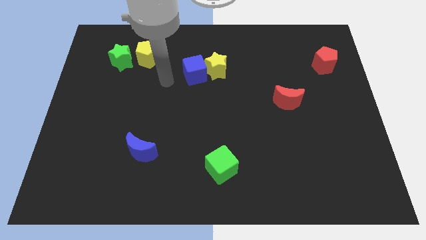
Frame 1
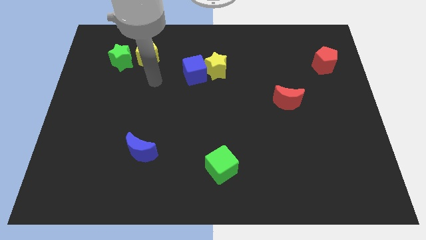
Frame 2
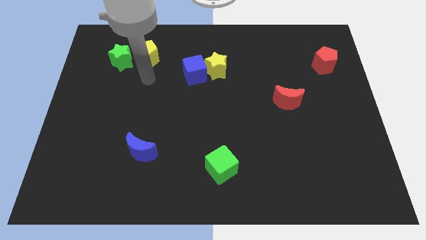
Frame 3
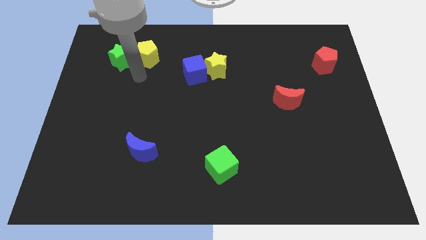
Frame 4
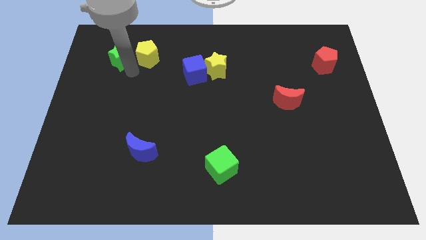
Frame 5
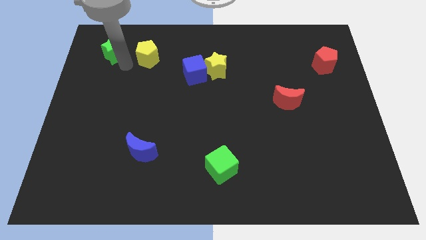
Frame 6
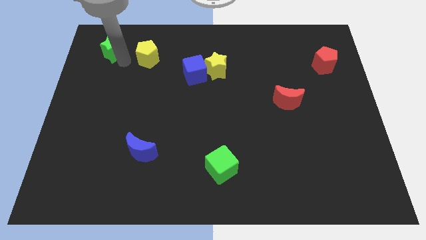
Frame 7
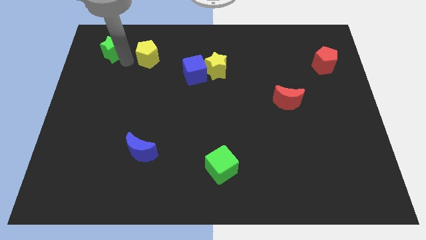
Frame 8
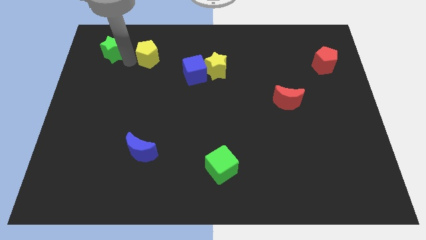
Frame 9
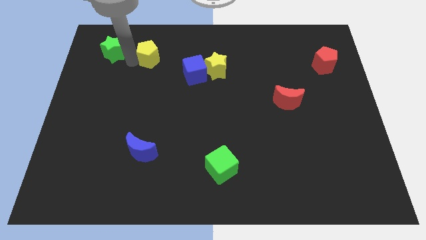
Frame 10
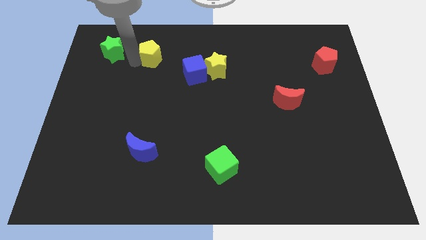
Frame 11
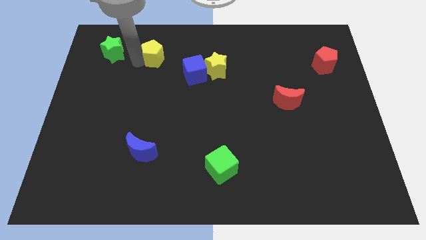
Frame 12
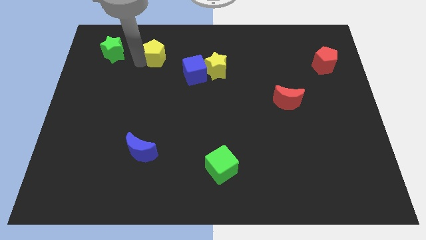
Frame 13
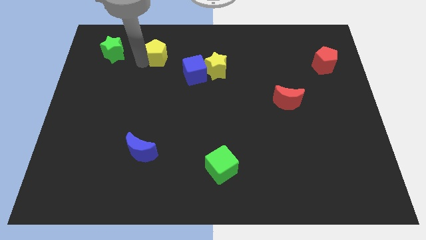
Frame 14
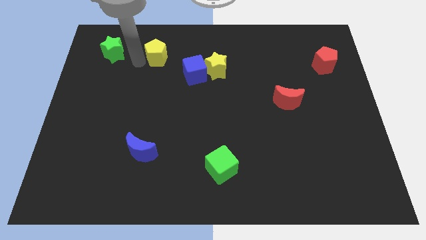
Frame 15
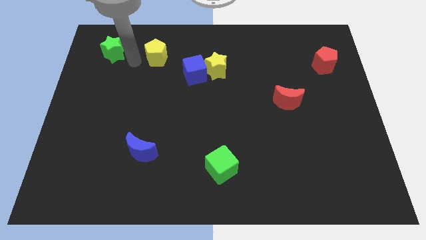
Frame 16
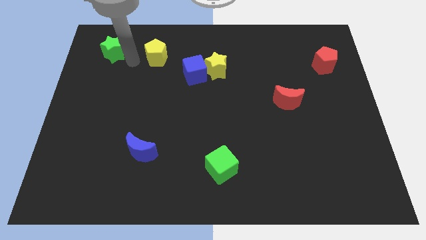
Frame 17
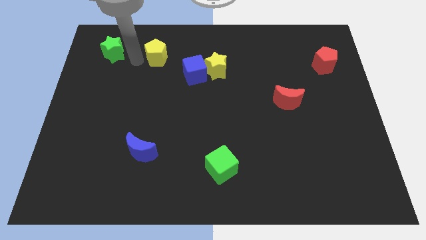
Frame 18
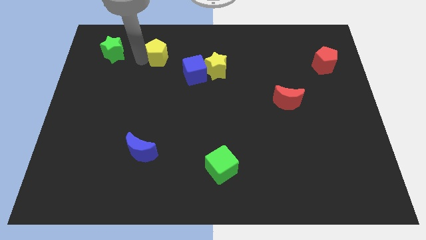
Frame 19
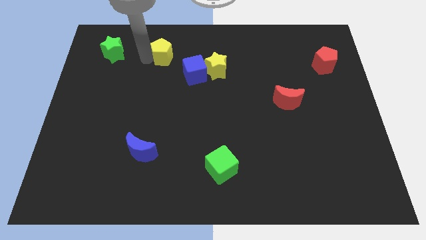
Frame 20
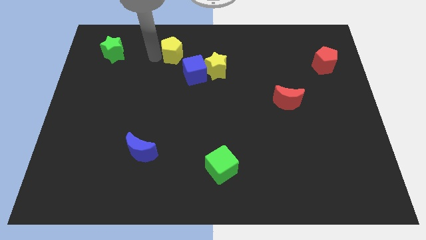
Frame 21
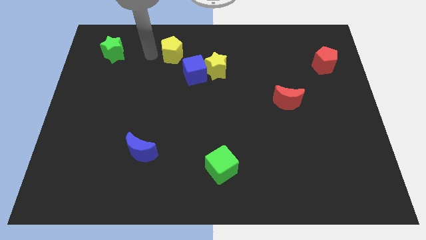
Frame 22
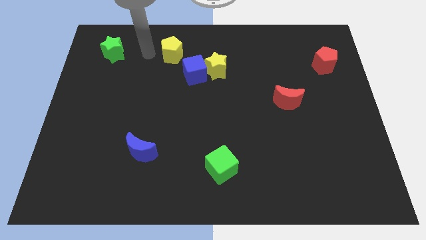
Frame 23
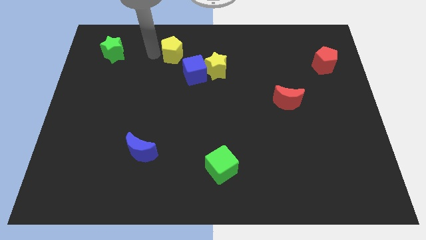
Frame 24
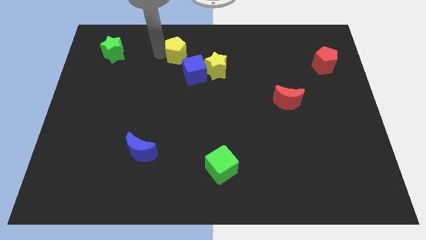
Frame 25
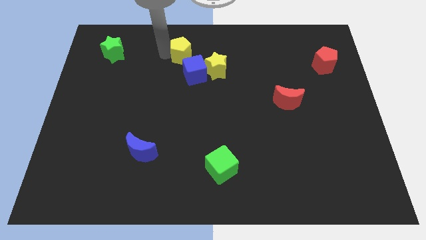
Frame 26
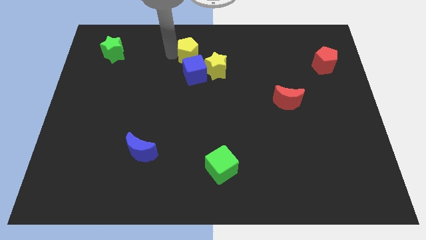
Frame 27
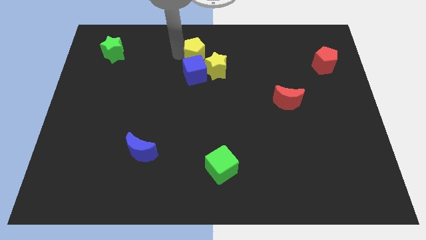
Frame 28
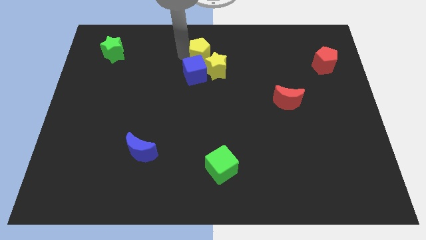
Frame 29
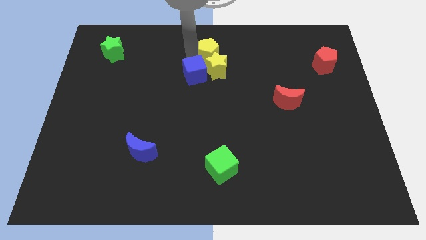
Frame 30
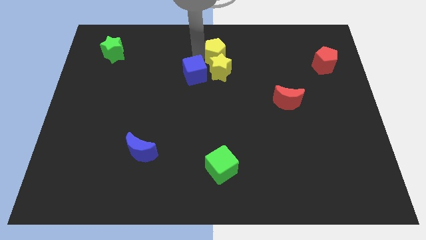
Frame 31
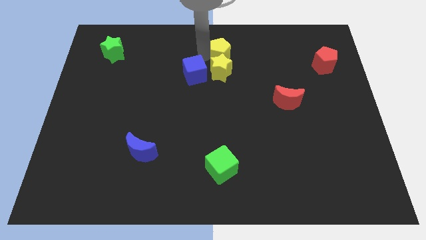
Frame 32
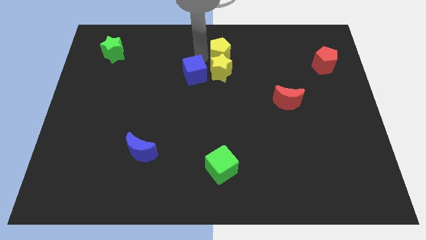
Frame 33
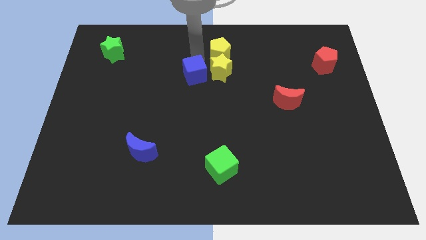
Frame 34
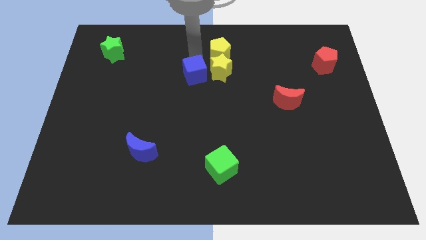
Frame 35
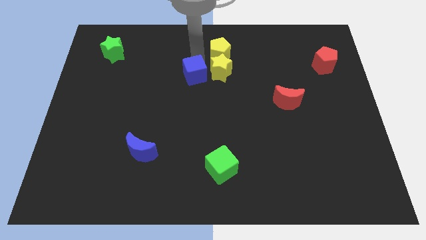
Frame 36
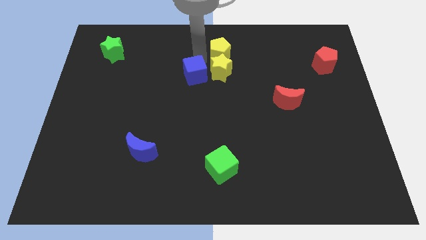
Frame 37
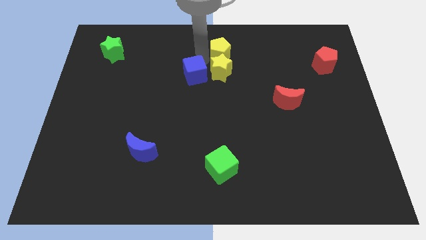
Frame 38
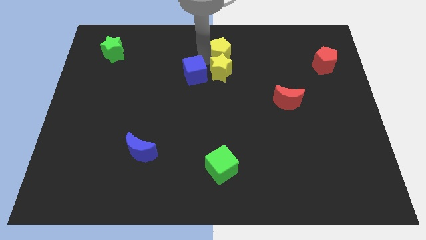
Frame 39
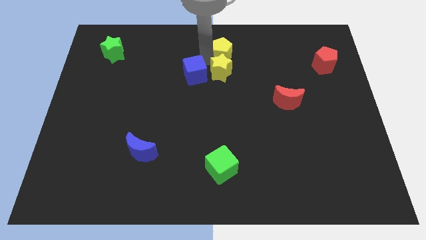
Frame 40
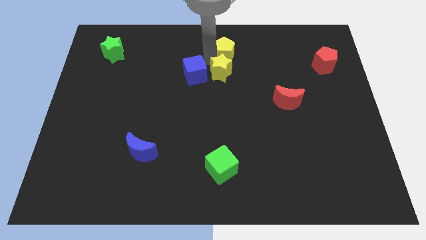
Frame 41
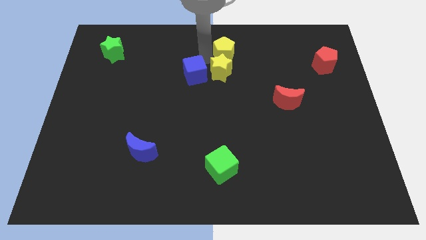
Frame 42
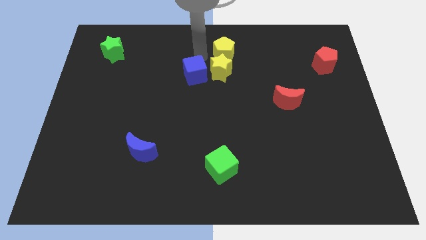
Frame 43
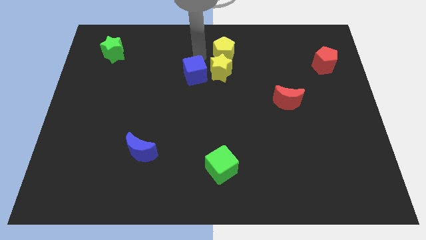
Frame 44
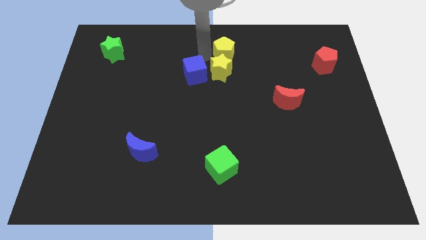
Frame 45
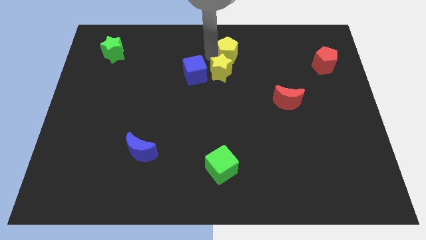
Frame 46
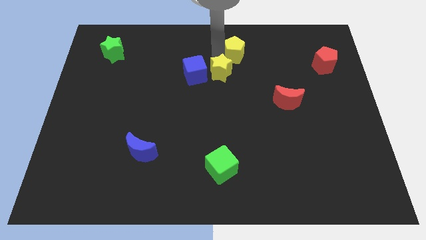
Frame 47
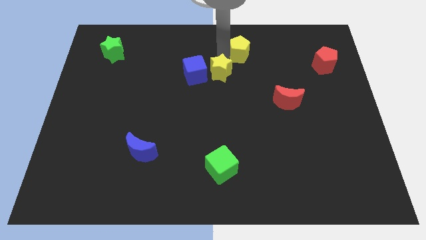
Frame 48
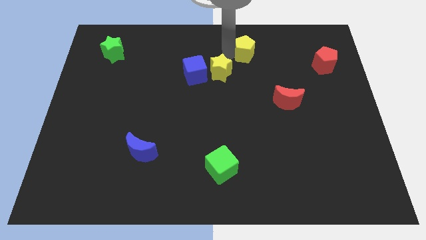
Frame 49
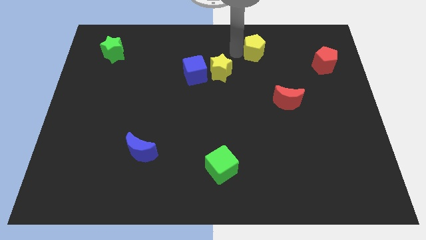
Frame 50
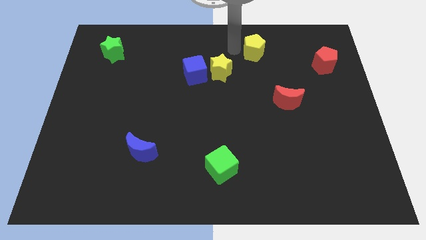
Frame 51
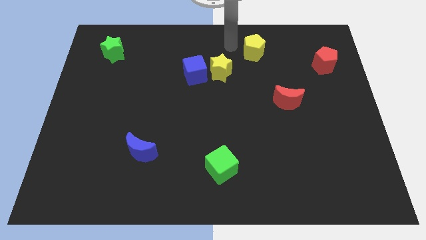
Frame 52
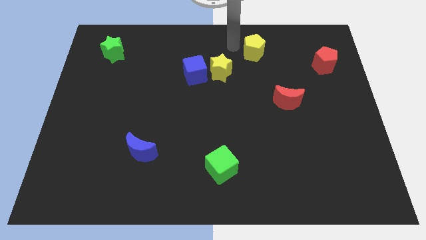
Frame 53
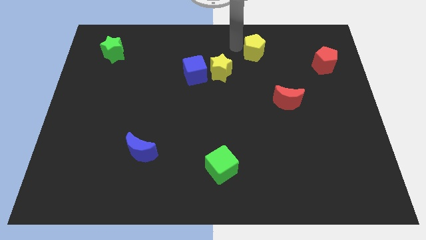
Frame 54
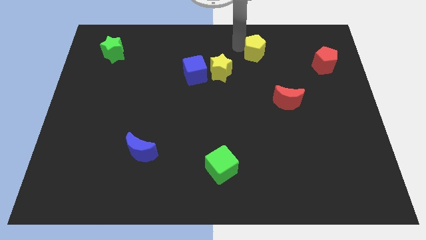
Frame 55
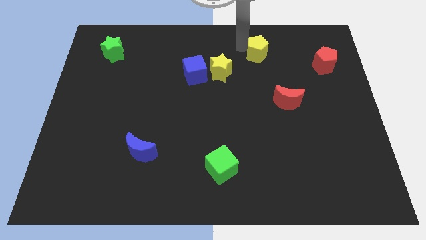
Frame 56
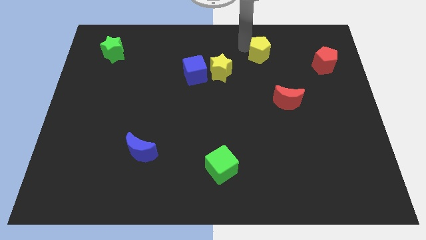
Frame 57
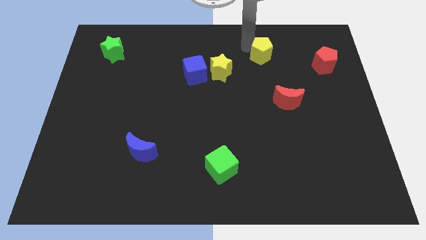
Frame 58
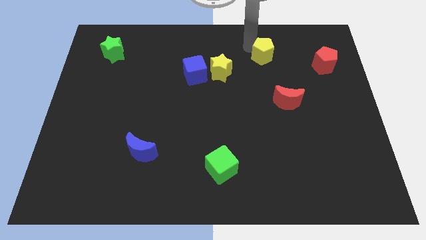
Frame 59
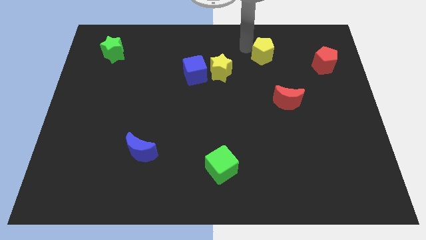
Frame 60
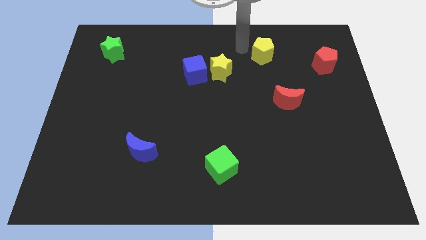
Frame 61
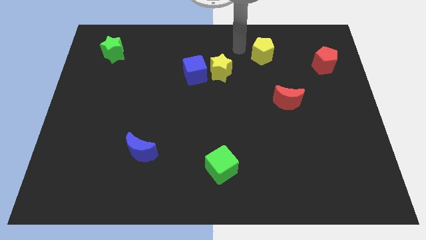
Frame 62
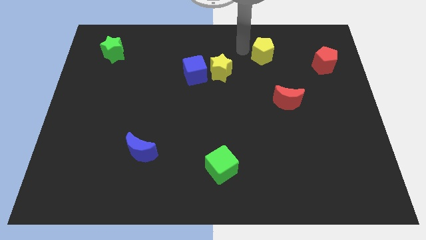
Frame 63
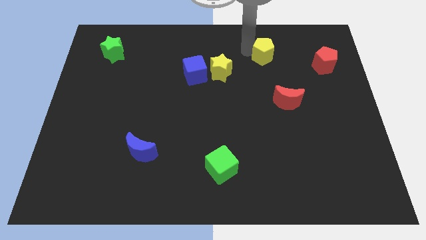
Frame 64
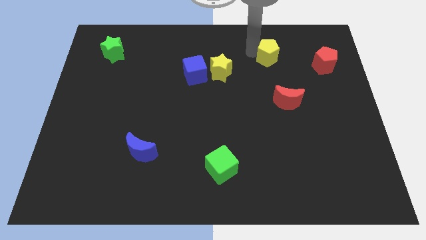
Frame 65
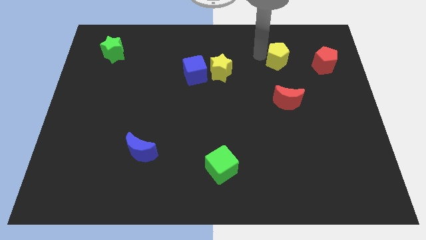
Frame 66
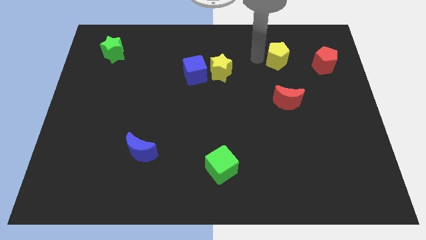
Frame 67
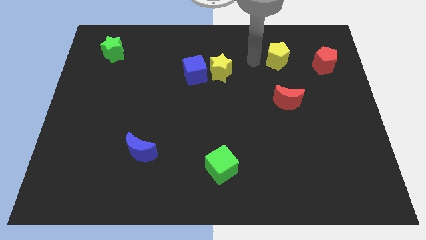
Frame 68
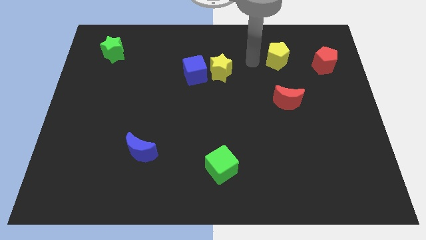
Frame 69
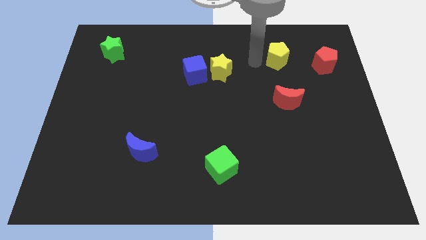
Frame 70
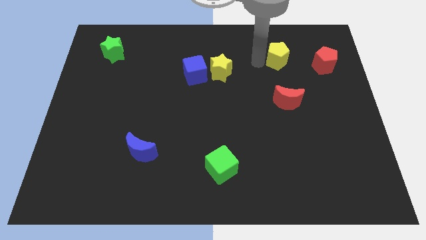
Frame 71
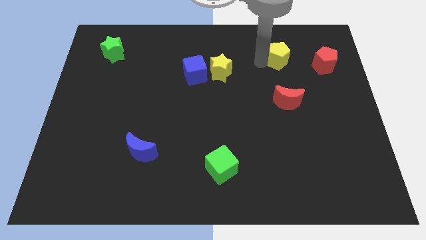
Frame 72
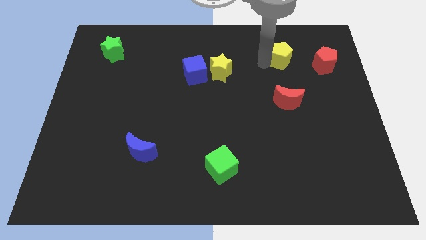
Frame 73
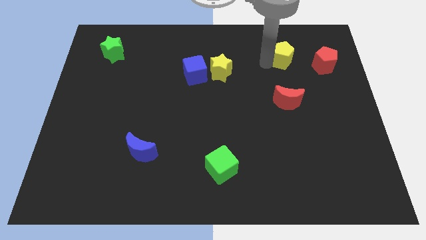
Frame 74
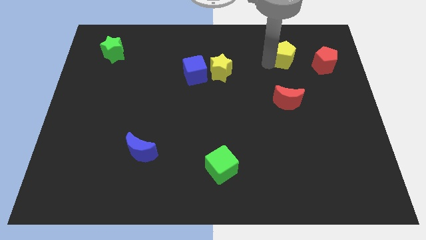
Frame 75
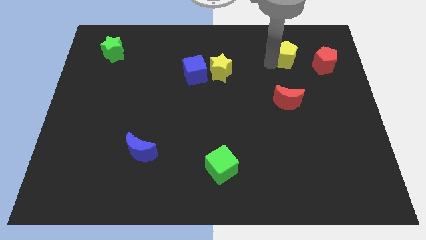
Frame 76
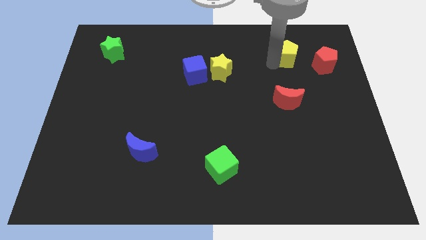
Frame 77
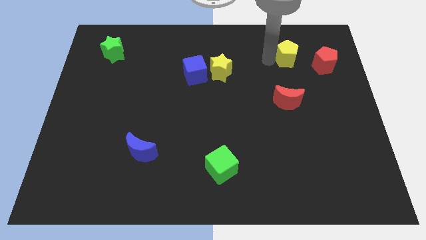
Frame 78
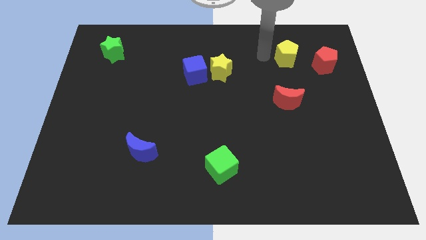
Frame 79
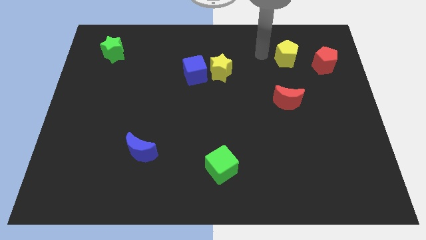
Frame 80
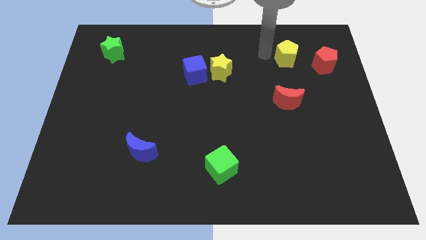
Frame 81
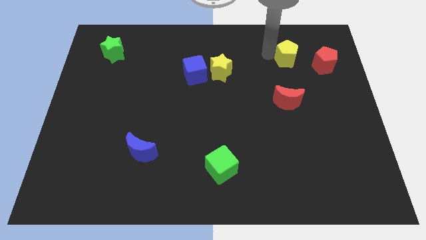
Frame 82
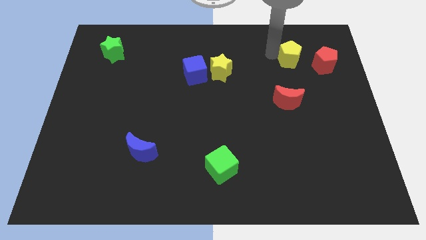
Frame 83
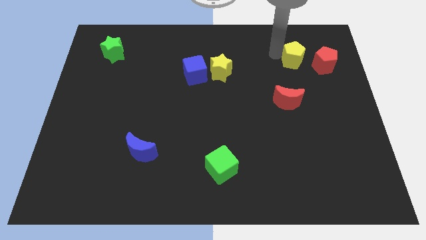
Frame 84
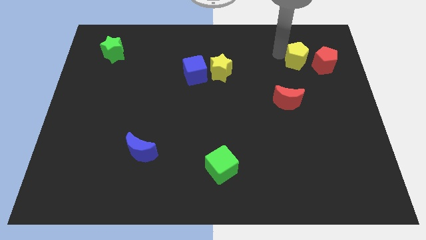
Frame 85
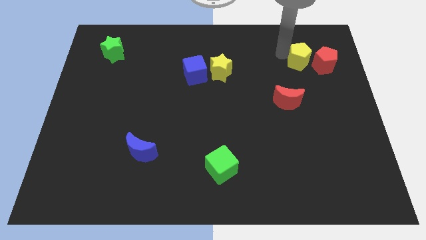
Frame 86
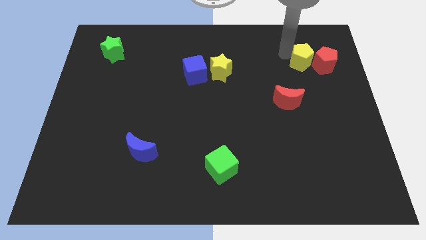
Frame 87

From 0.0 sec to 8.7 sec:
move the yellow pentagon close to the red pentagon
